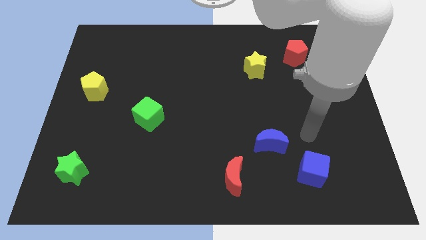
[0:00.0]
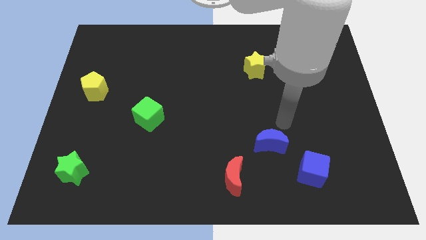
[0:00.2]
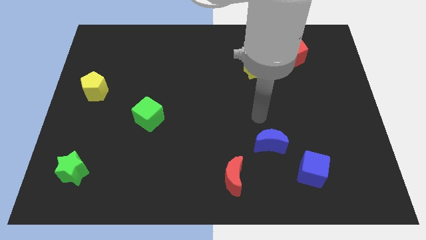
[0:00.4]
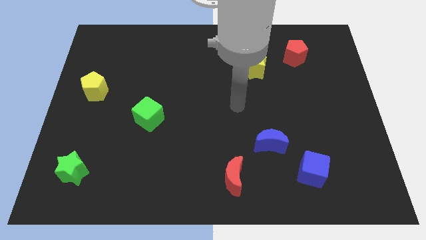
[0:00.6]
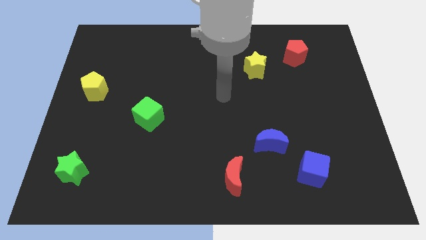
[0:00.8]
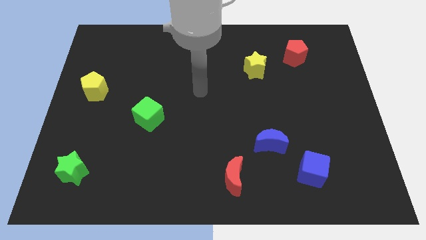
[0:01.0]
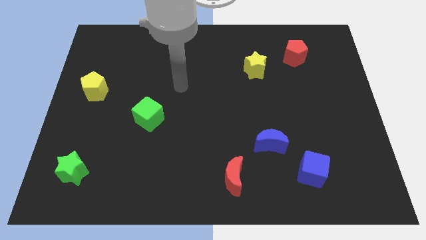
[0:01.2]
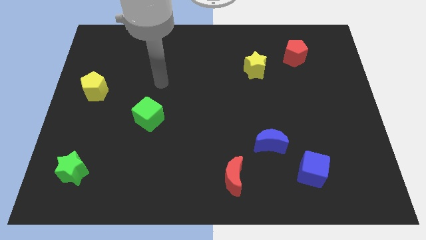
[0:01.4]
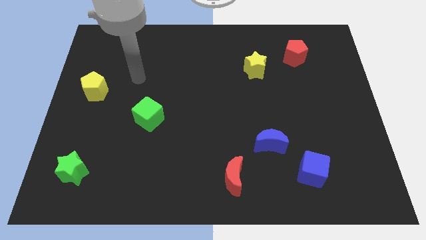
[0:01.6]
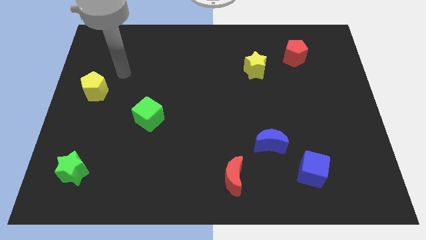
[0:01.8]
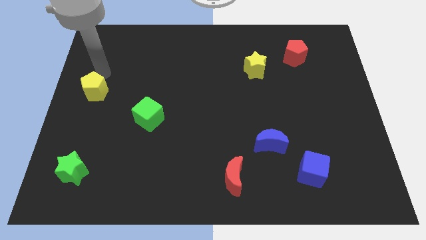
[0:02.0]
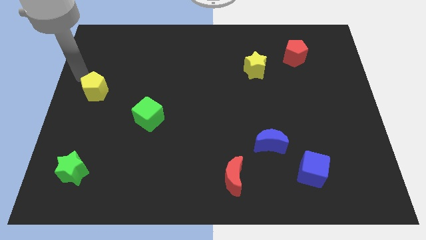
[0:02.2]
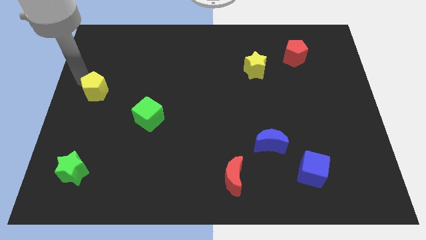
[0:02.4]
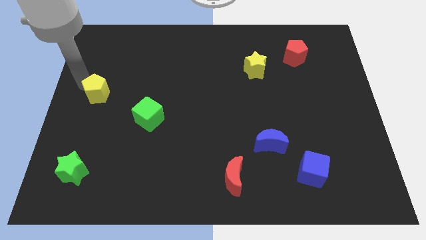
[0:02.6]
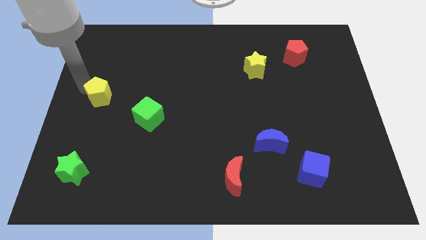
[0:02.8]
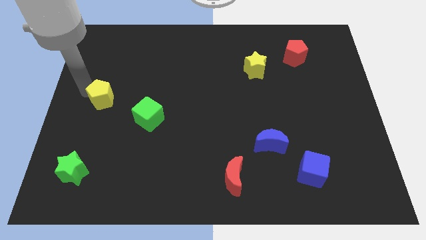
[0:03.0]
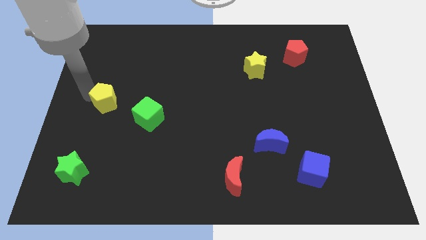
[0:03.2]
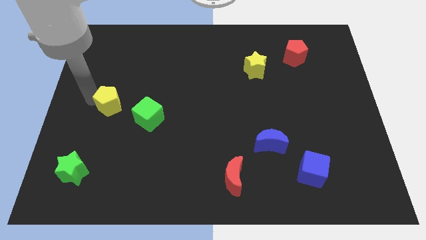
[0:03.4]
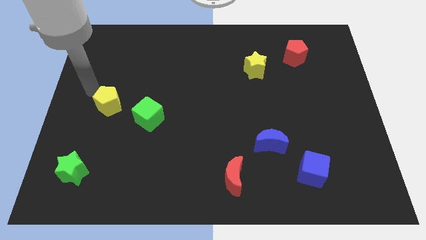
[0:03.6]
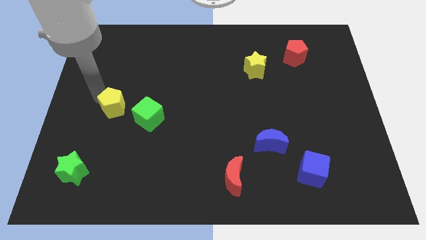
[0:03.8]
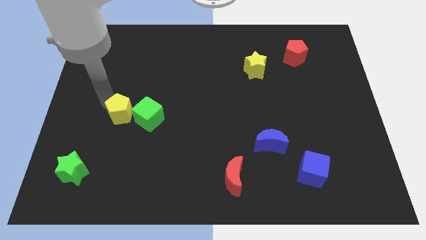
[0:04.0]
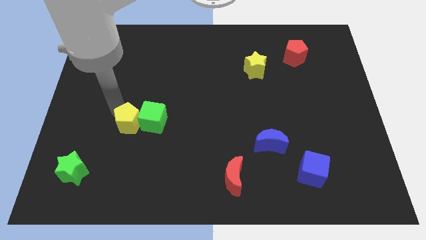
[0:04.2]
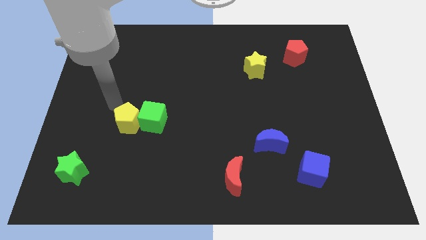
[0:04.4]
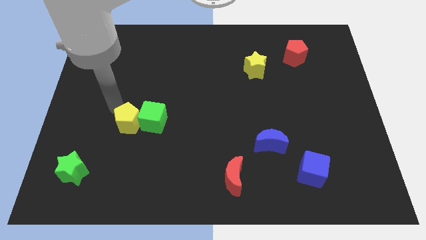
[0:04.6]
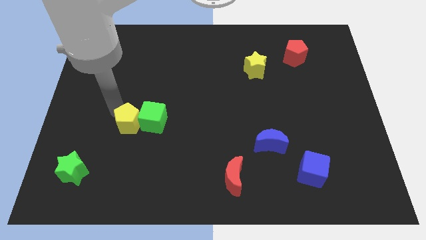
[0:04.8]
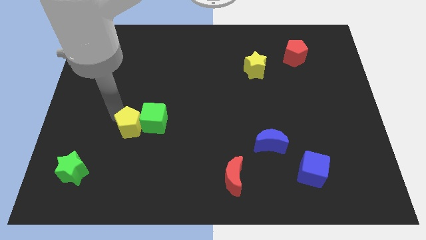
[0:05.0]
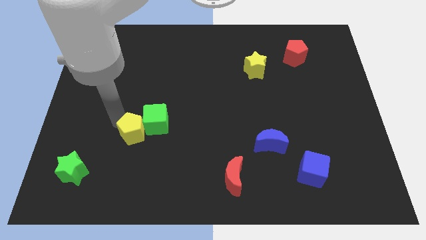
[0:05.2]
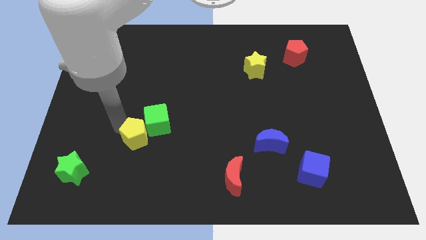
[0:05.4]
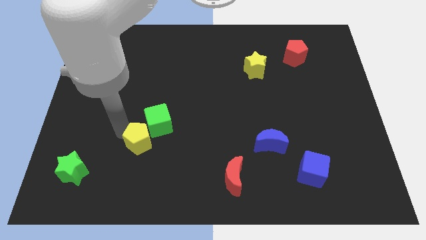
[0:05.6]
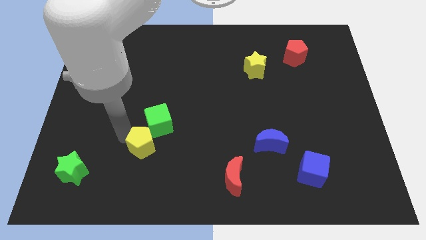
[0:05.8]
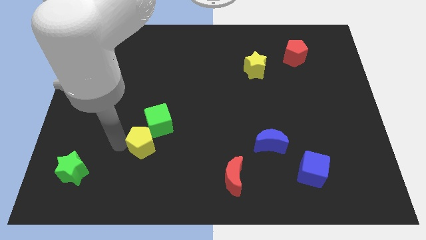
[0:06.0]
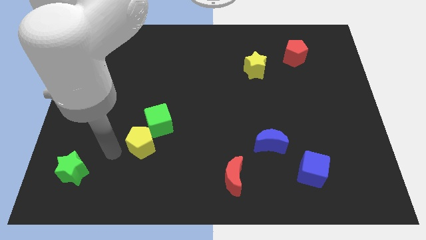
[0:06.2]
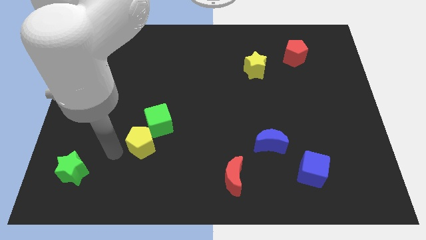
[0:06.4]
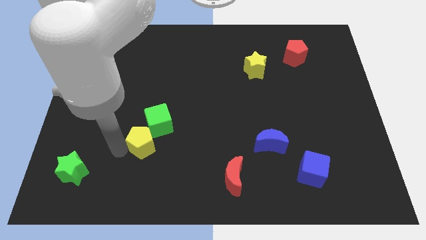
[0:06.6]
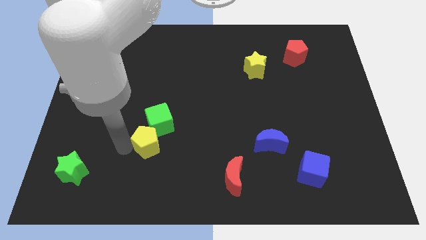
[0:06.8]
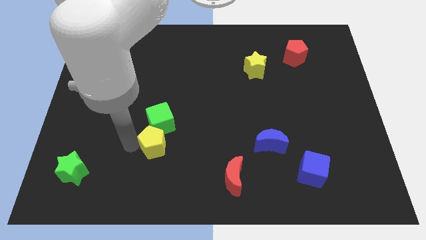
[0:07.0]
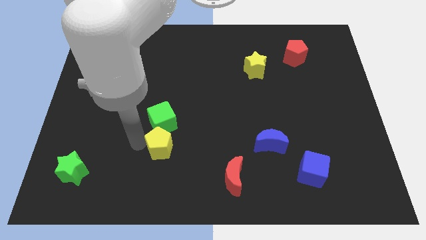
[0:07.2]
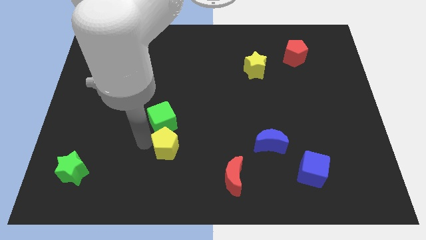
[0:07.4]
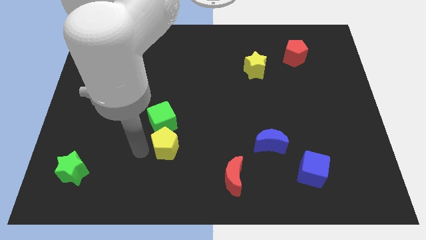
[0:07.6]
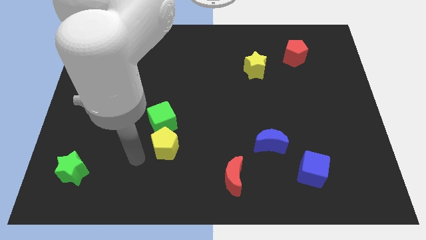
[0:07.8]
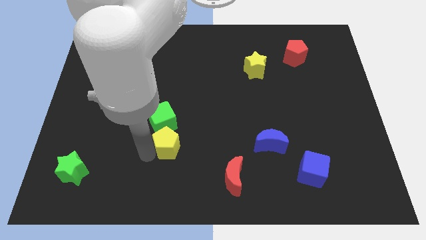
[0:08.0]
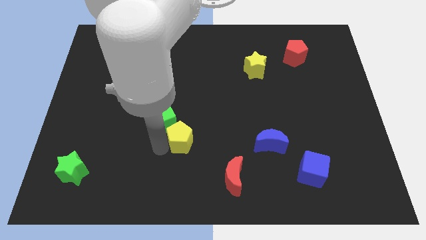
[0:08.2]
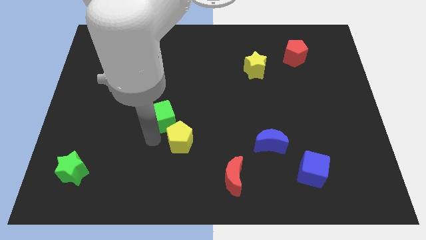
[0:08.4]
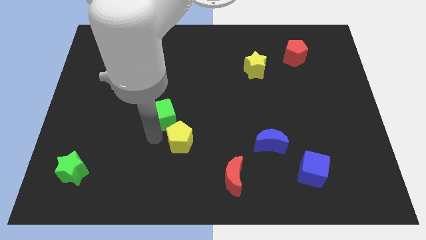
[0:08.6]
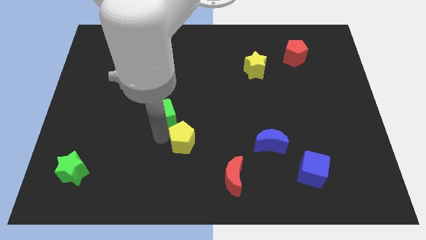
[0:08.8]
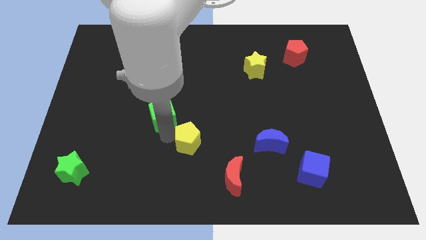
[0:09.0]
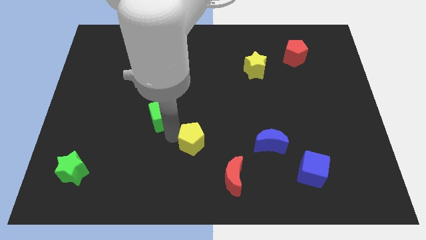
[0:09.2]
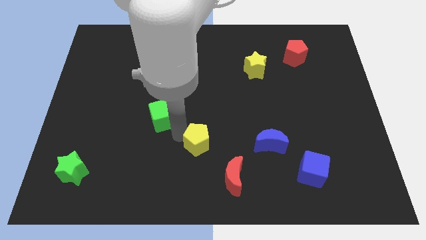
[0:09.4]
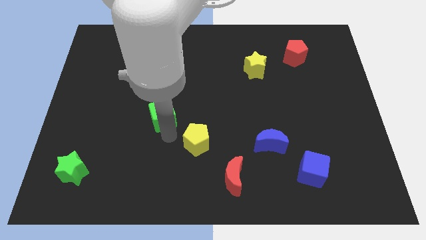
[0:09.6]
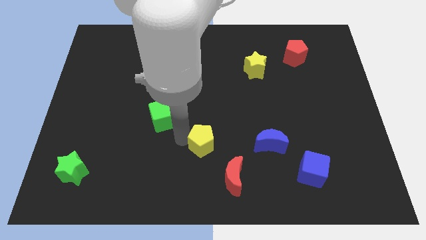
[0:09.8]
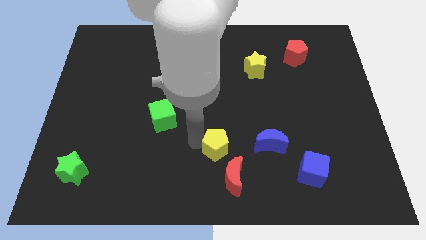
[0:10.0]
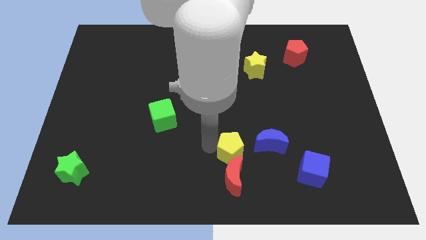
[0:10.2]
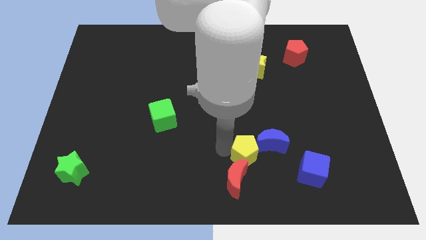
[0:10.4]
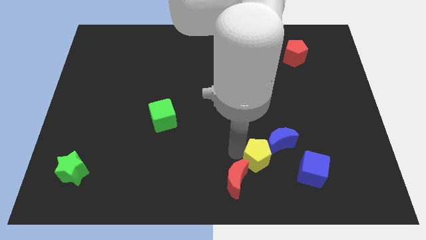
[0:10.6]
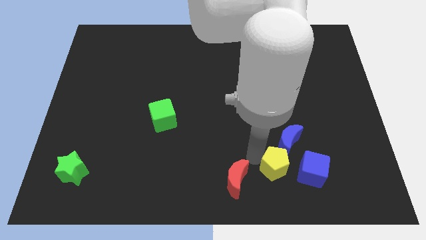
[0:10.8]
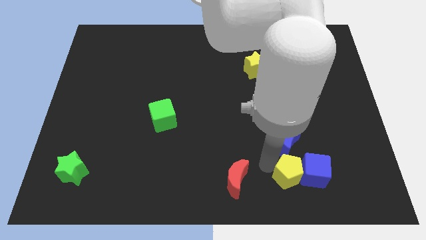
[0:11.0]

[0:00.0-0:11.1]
push the yellow pentagon towards the blue cube

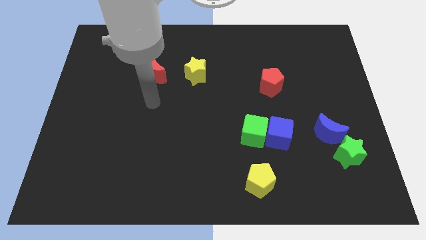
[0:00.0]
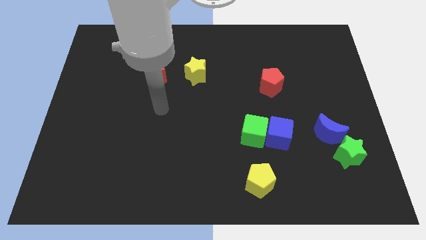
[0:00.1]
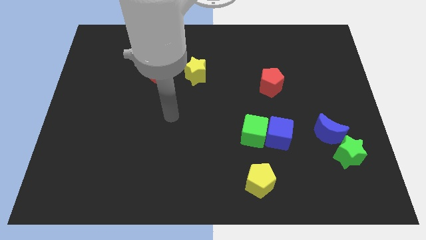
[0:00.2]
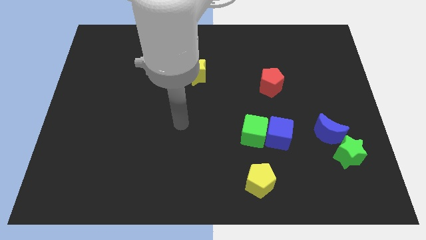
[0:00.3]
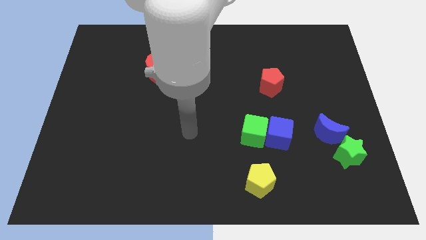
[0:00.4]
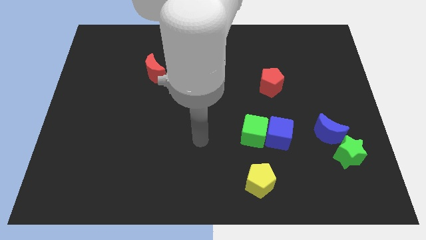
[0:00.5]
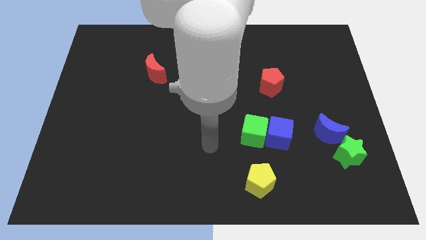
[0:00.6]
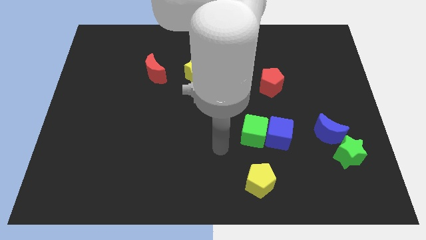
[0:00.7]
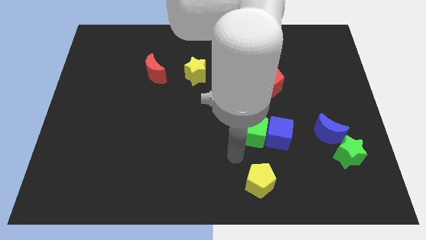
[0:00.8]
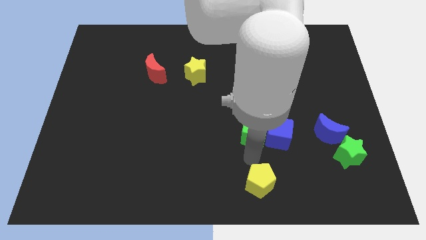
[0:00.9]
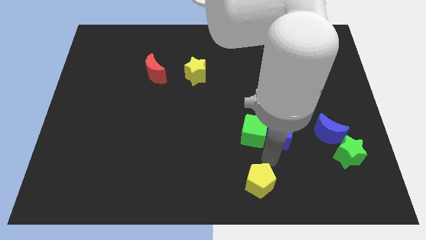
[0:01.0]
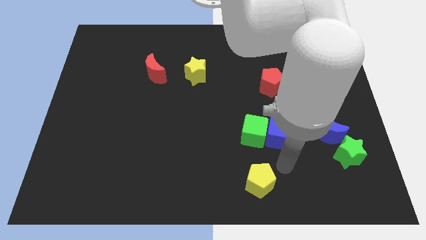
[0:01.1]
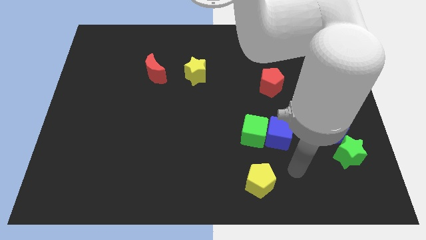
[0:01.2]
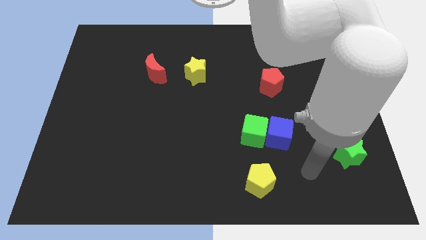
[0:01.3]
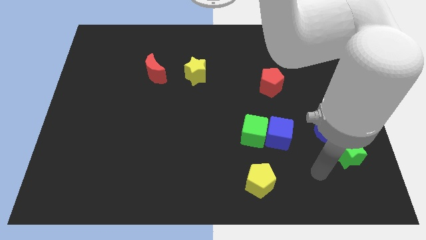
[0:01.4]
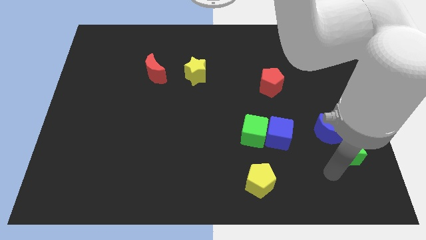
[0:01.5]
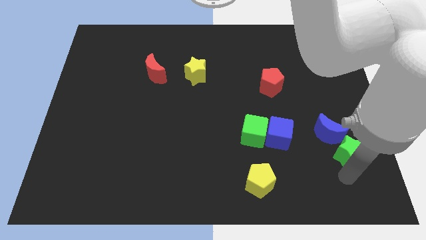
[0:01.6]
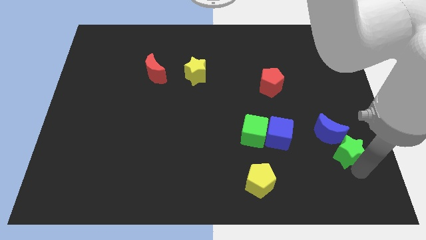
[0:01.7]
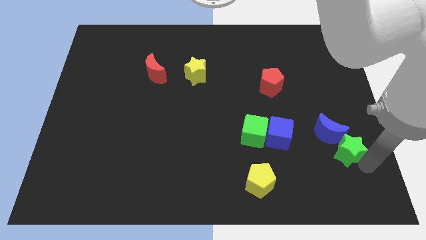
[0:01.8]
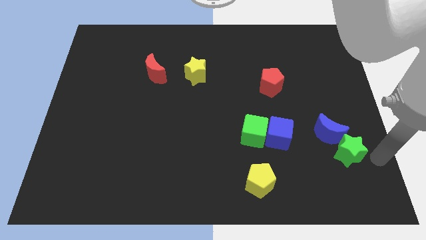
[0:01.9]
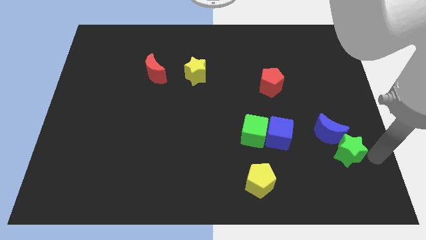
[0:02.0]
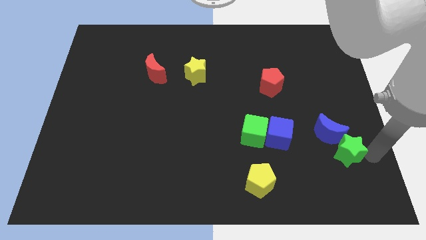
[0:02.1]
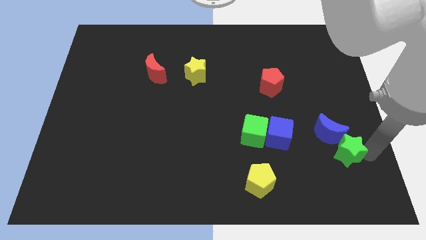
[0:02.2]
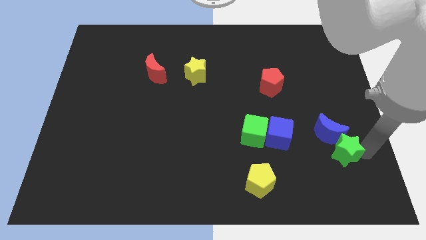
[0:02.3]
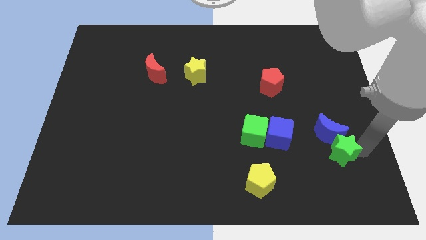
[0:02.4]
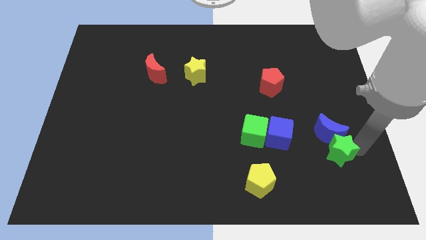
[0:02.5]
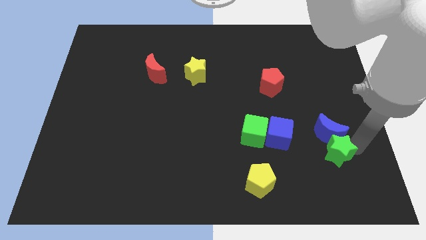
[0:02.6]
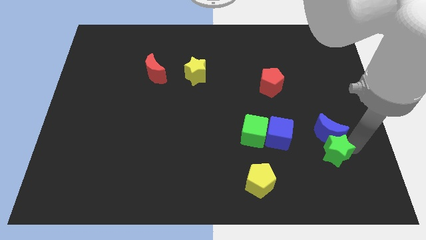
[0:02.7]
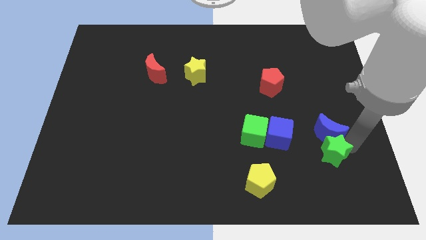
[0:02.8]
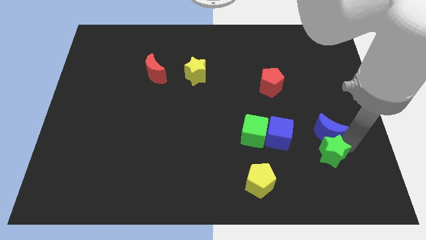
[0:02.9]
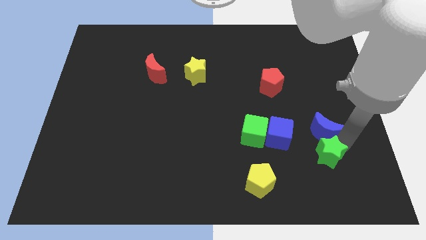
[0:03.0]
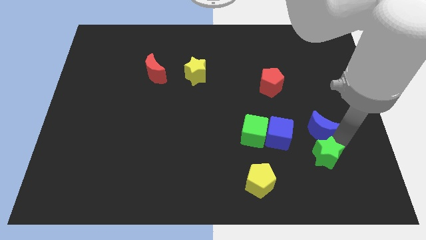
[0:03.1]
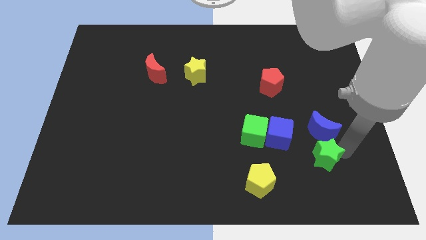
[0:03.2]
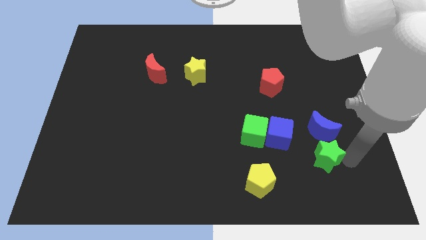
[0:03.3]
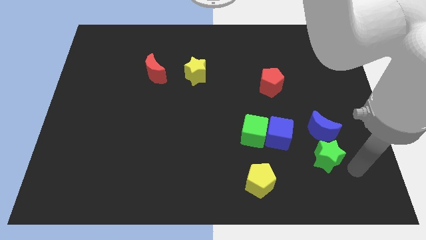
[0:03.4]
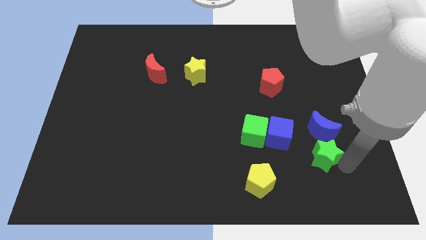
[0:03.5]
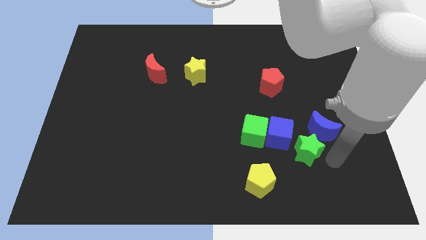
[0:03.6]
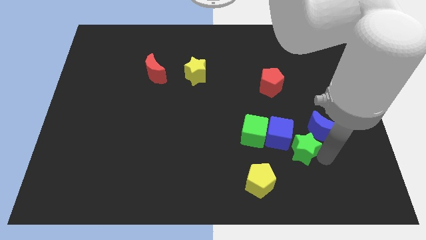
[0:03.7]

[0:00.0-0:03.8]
slide the green star to the blue cube
